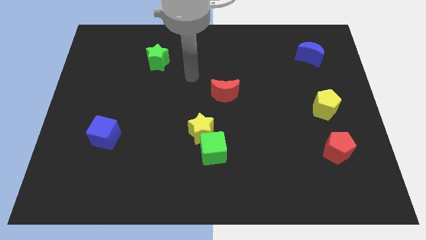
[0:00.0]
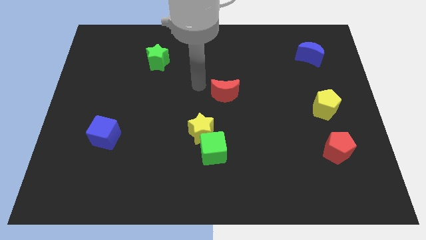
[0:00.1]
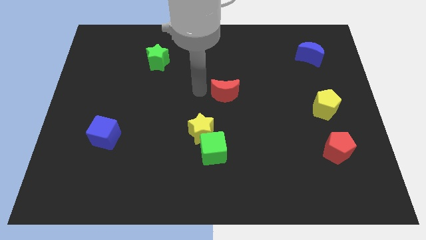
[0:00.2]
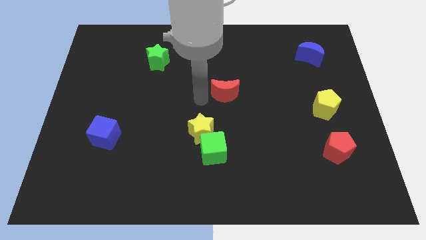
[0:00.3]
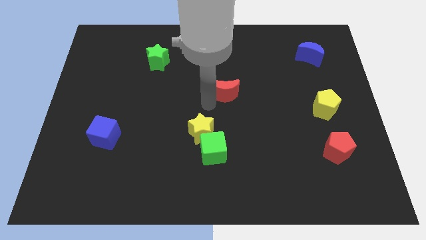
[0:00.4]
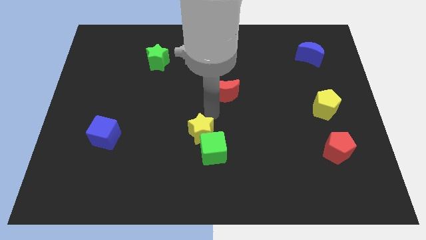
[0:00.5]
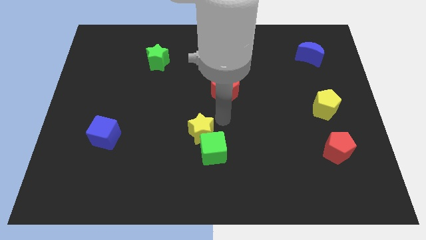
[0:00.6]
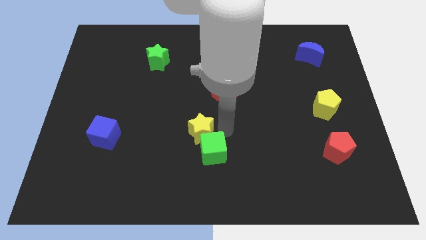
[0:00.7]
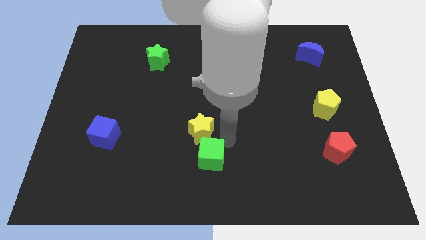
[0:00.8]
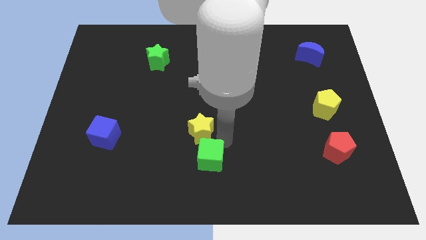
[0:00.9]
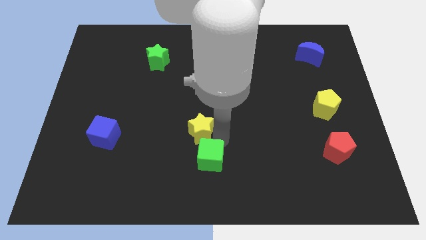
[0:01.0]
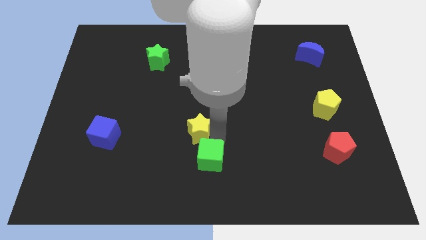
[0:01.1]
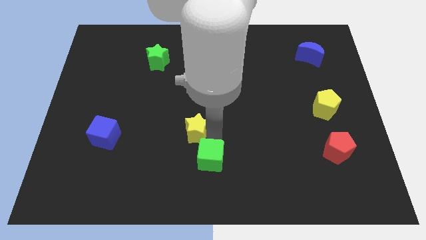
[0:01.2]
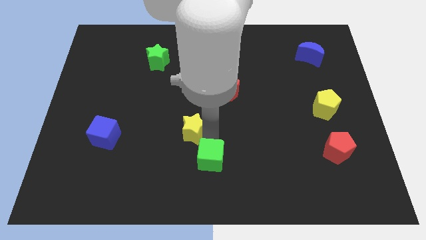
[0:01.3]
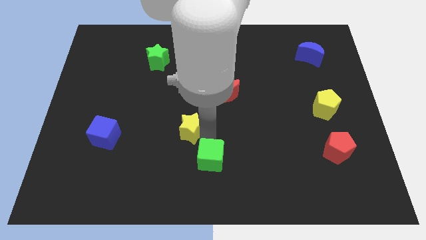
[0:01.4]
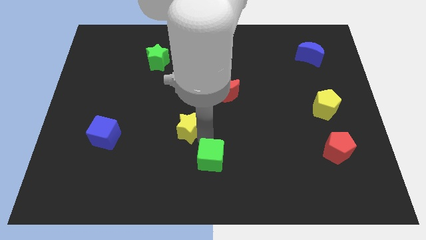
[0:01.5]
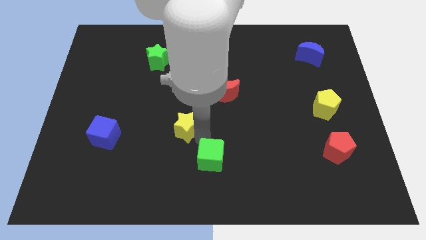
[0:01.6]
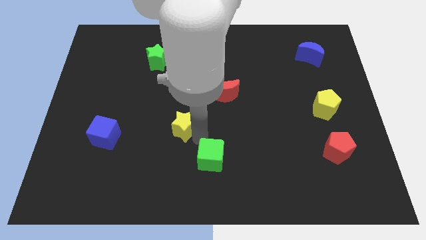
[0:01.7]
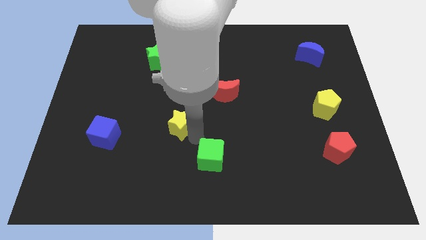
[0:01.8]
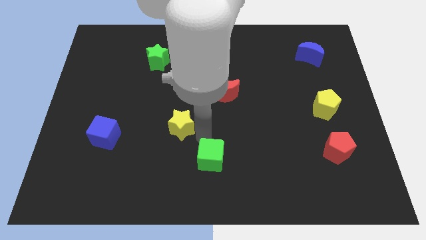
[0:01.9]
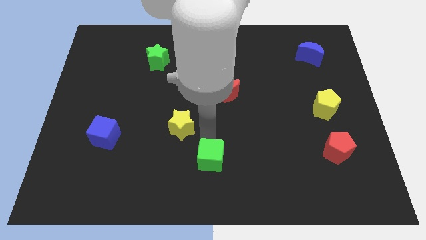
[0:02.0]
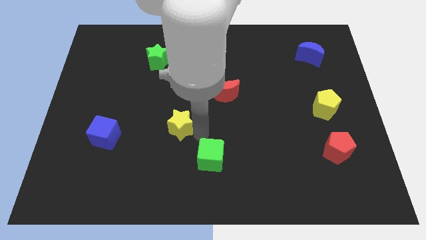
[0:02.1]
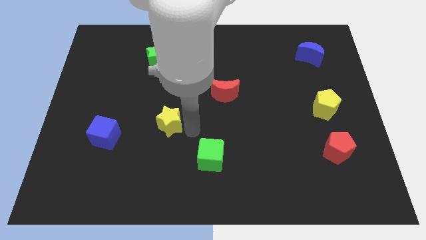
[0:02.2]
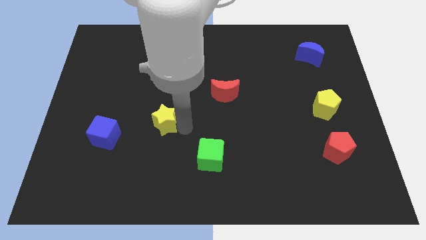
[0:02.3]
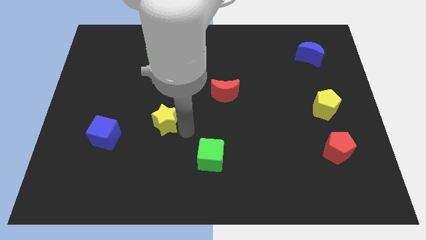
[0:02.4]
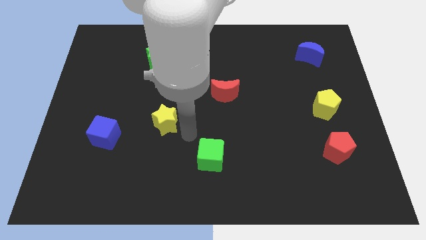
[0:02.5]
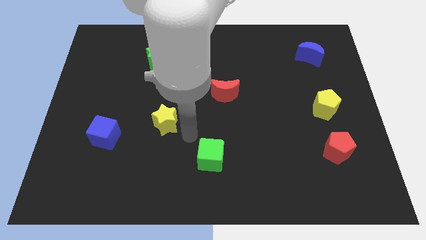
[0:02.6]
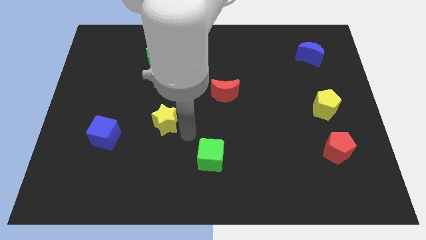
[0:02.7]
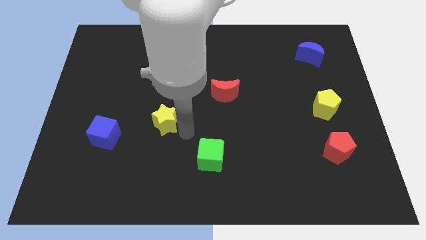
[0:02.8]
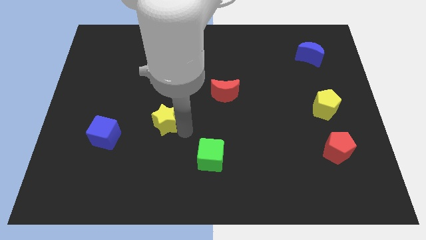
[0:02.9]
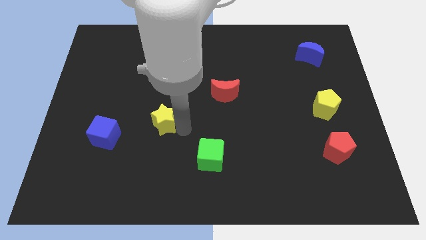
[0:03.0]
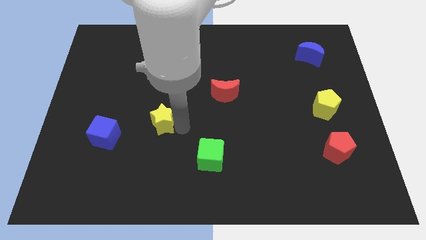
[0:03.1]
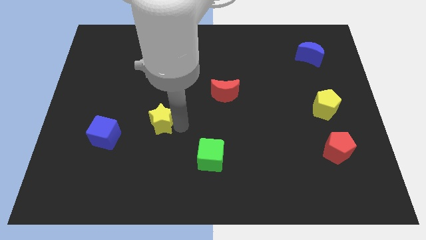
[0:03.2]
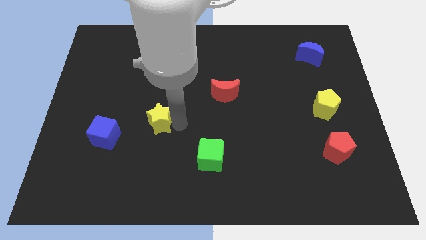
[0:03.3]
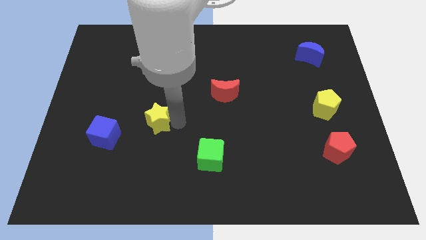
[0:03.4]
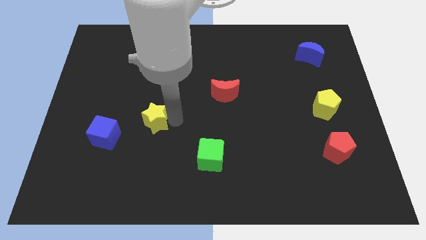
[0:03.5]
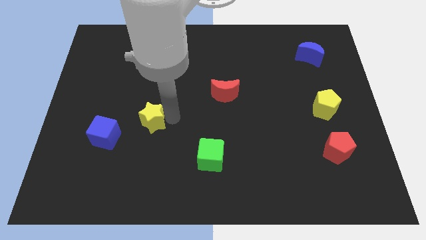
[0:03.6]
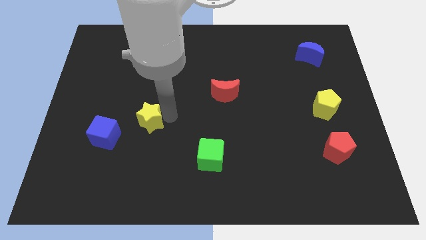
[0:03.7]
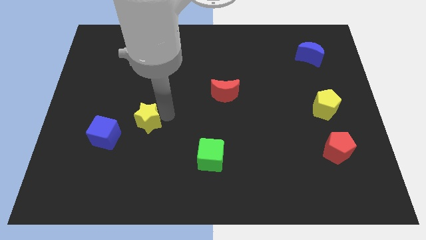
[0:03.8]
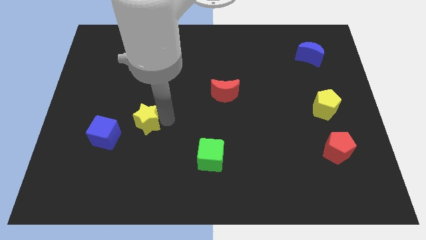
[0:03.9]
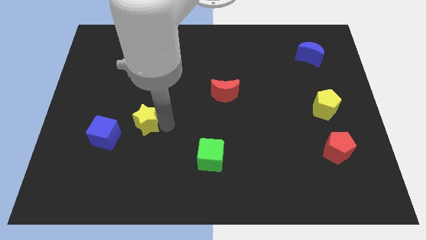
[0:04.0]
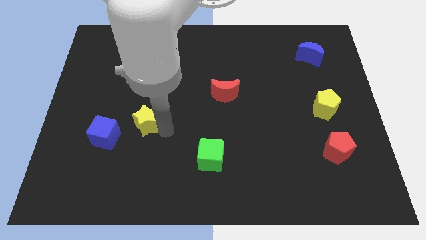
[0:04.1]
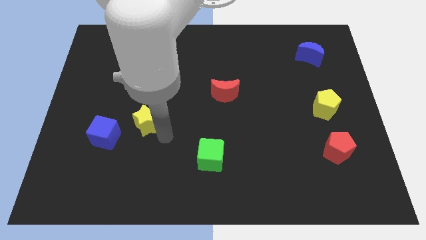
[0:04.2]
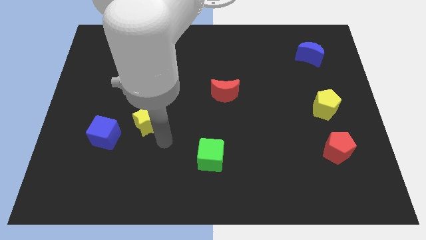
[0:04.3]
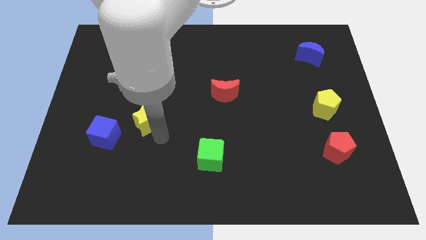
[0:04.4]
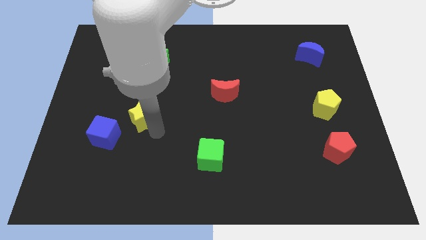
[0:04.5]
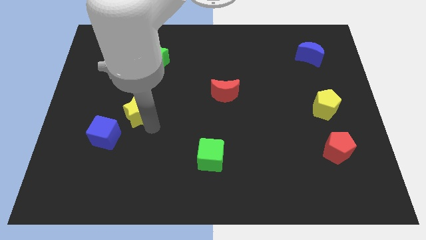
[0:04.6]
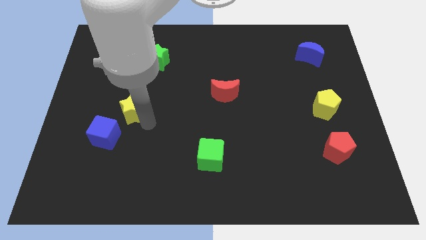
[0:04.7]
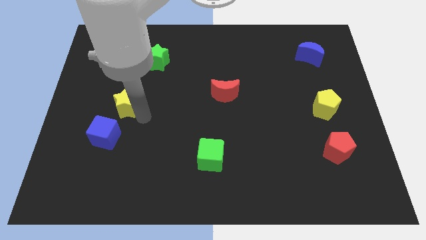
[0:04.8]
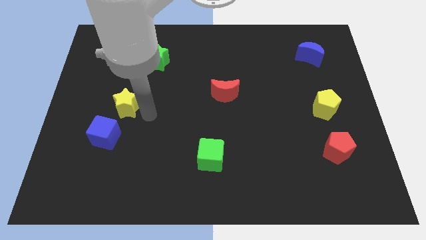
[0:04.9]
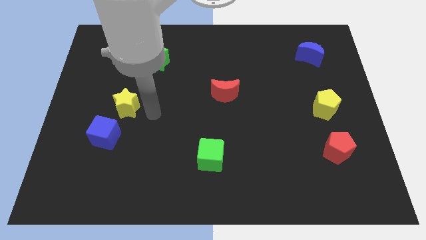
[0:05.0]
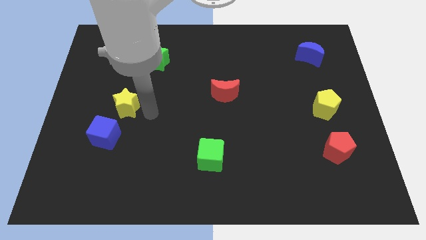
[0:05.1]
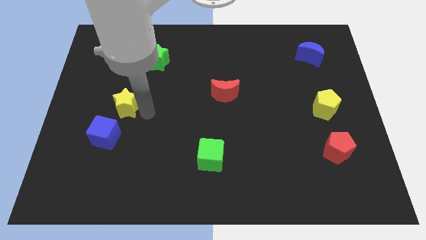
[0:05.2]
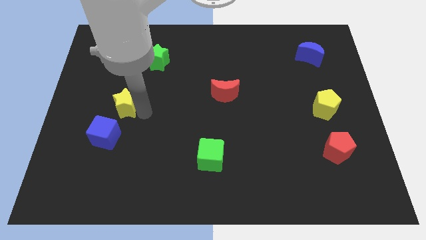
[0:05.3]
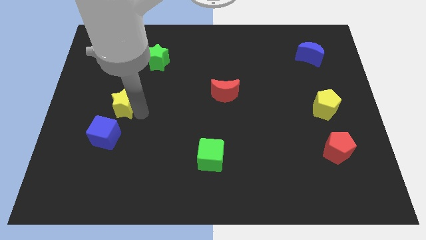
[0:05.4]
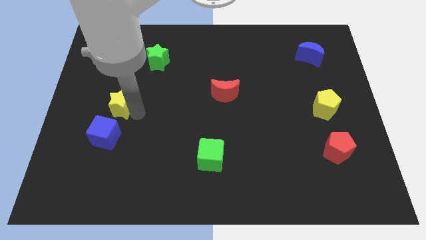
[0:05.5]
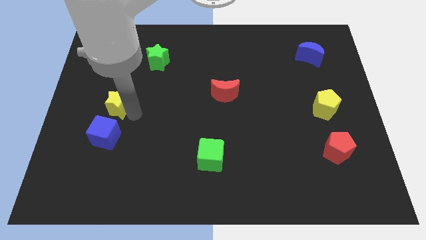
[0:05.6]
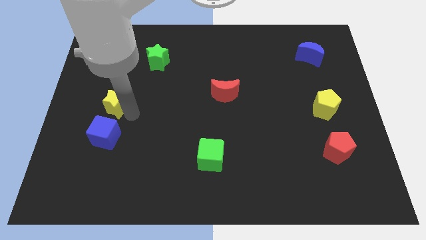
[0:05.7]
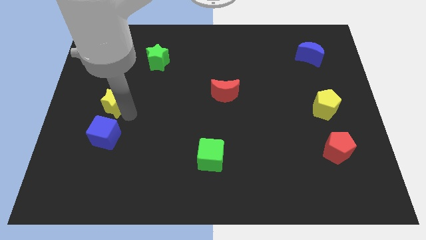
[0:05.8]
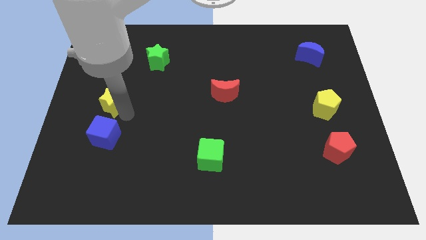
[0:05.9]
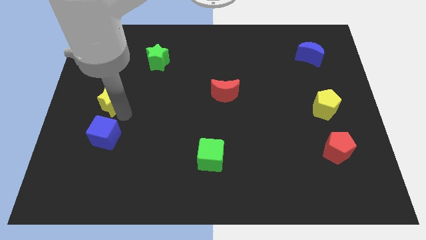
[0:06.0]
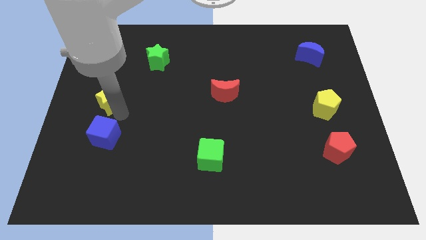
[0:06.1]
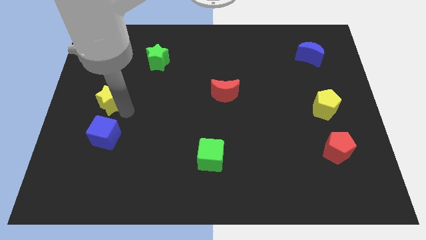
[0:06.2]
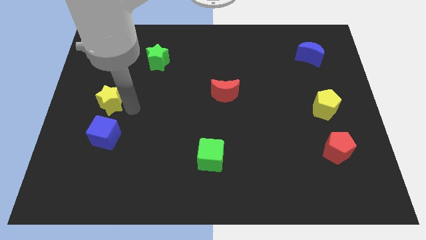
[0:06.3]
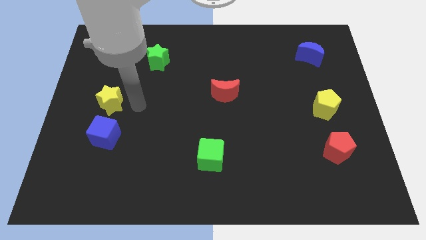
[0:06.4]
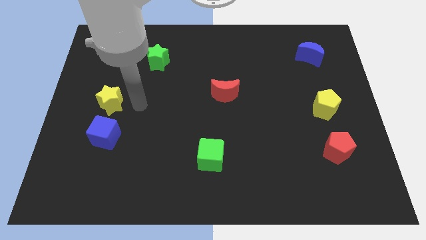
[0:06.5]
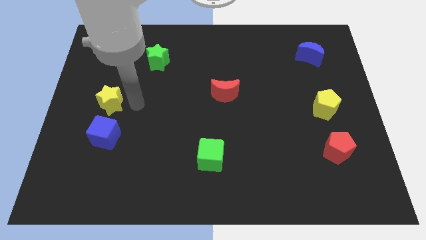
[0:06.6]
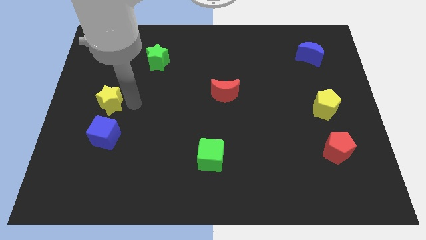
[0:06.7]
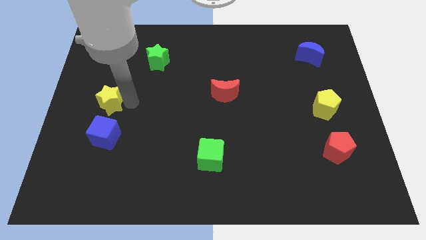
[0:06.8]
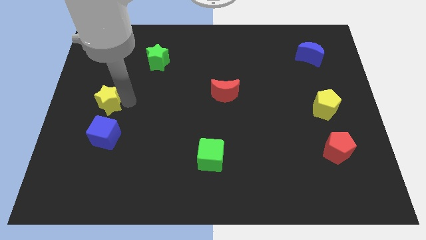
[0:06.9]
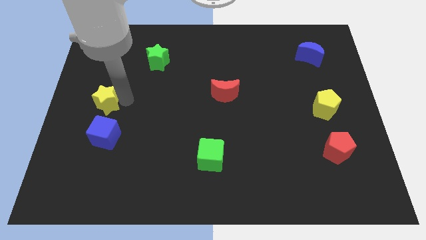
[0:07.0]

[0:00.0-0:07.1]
slide the yellow star to the center left
